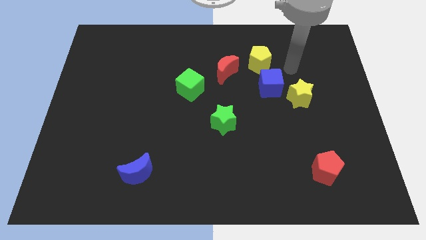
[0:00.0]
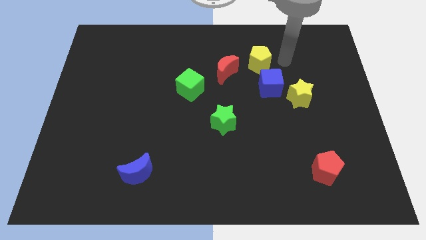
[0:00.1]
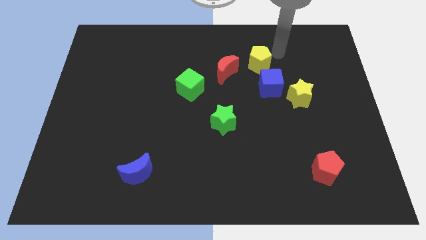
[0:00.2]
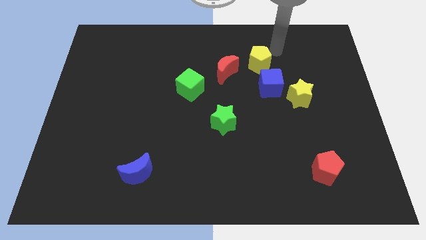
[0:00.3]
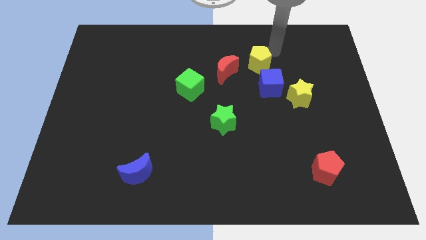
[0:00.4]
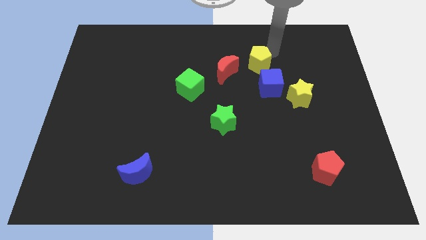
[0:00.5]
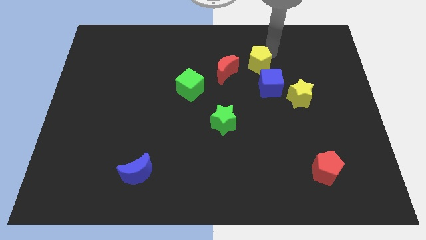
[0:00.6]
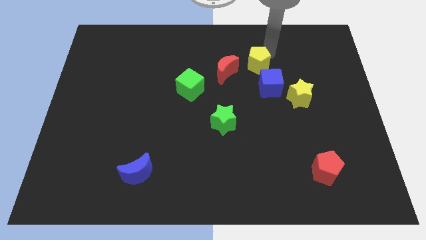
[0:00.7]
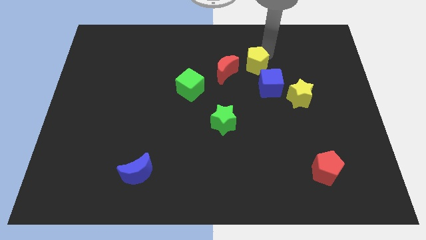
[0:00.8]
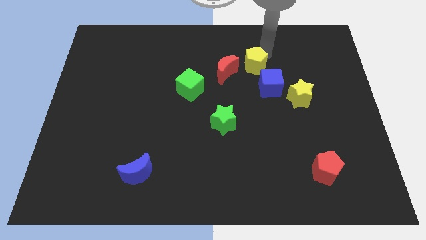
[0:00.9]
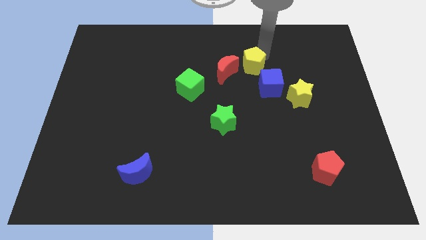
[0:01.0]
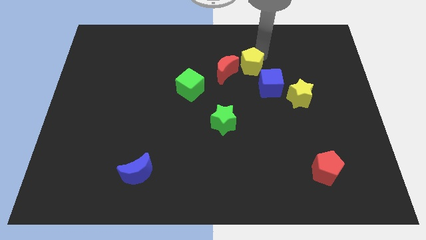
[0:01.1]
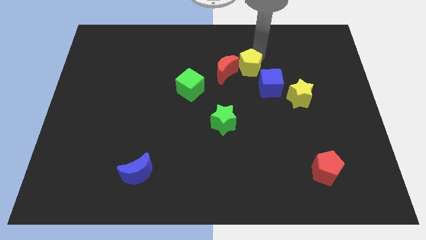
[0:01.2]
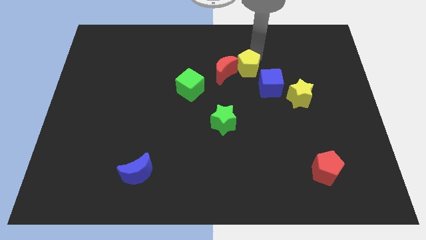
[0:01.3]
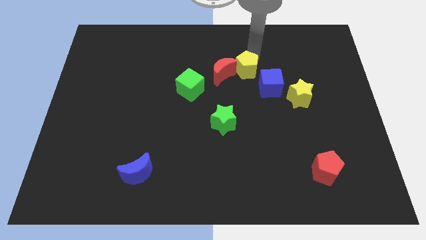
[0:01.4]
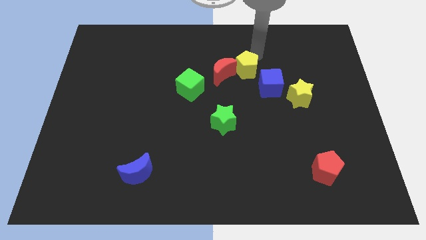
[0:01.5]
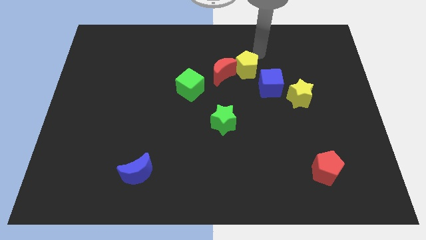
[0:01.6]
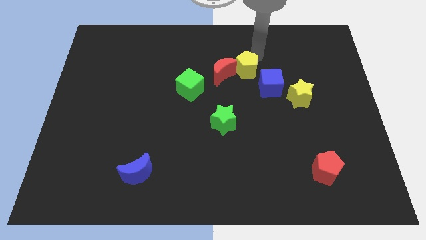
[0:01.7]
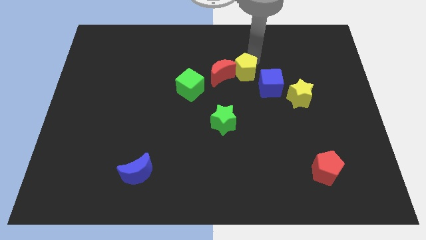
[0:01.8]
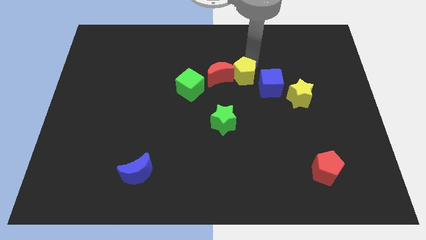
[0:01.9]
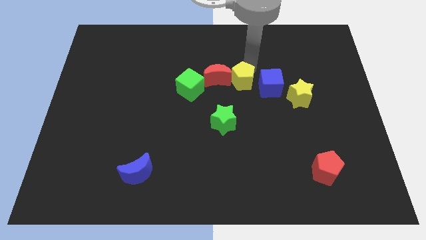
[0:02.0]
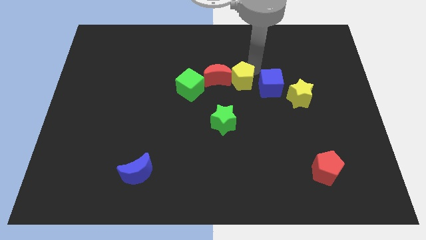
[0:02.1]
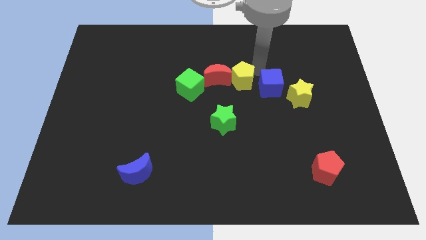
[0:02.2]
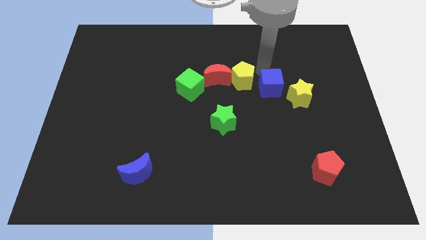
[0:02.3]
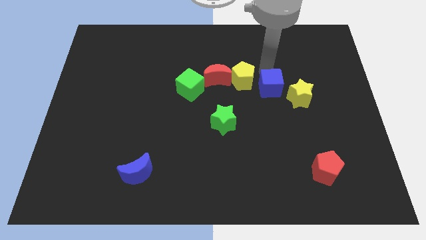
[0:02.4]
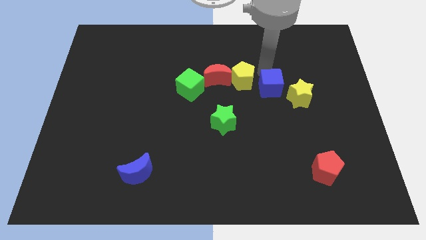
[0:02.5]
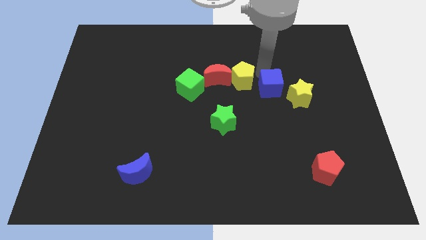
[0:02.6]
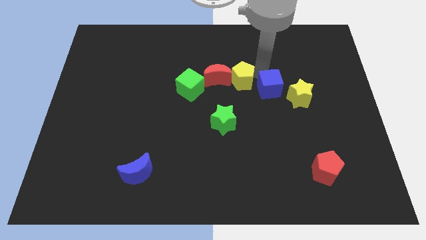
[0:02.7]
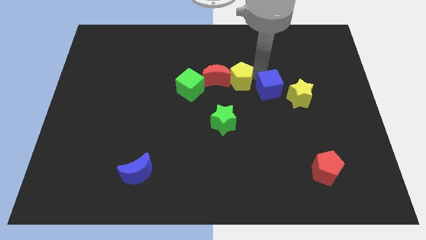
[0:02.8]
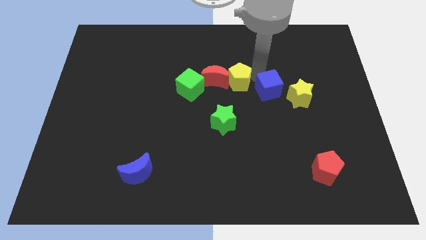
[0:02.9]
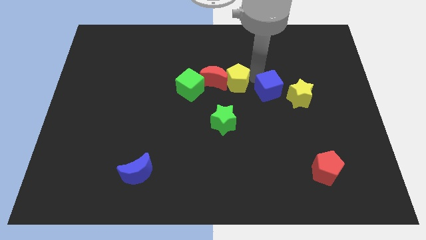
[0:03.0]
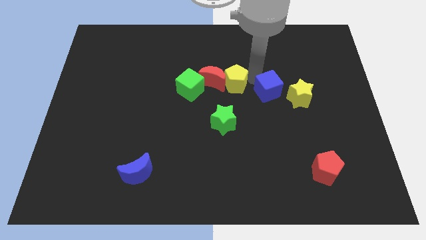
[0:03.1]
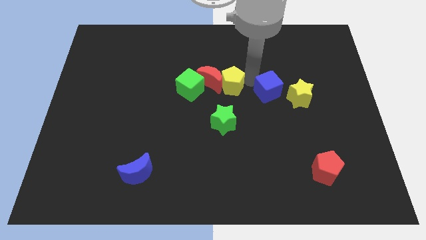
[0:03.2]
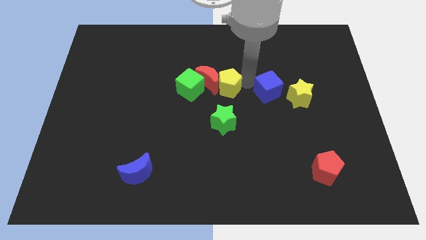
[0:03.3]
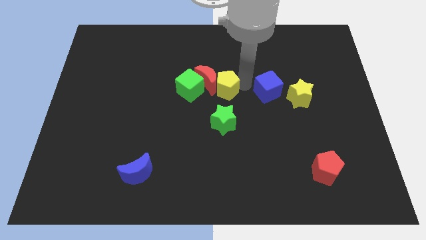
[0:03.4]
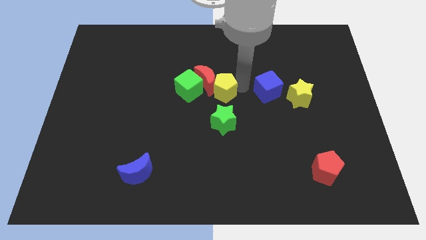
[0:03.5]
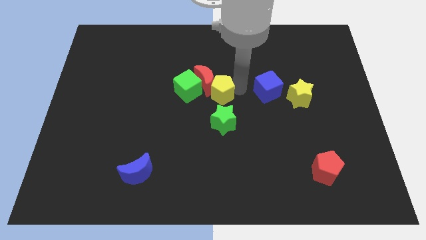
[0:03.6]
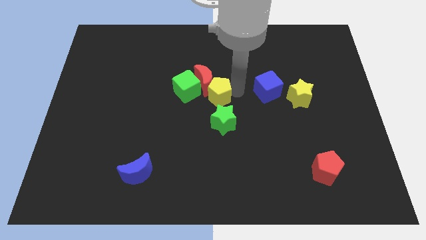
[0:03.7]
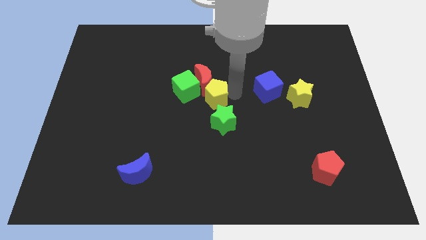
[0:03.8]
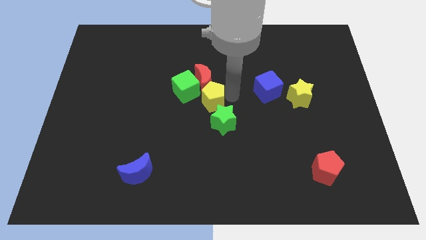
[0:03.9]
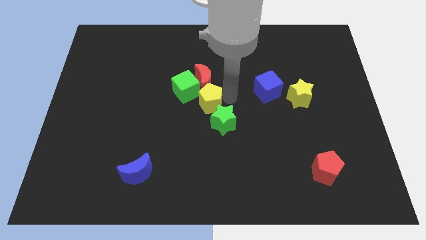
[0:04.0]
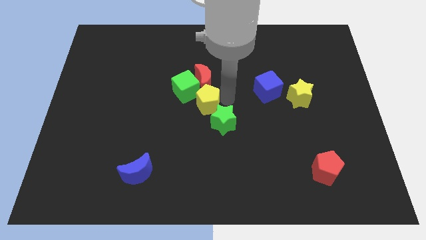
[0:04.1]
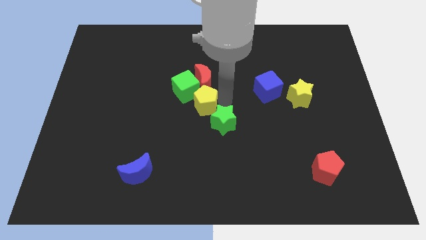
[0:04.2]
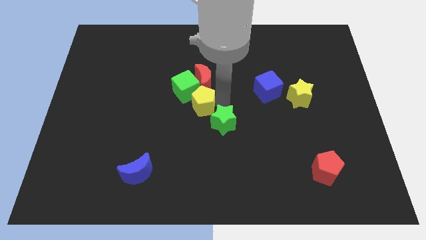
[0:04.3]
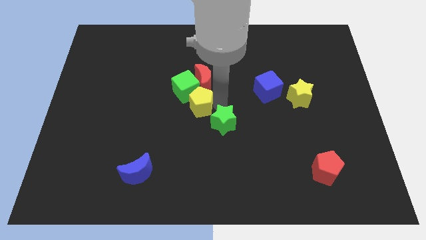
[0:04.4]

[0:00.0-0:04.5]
put the yellow pentagon to the green cube

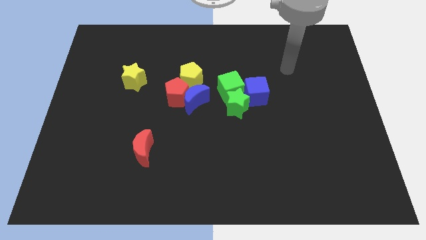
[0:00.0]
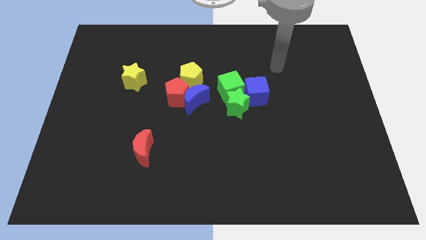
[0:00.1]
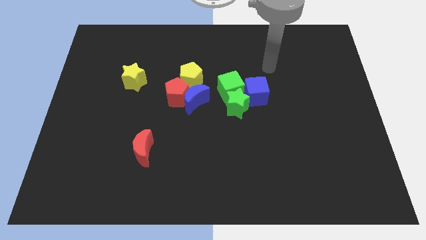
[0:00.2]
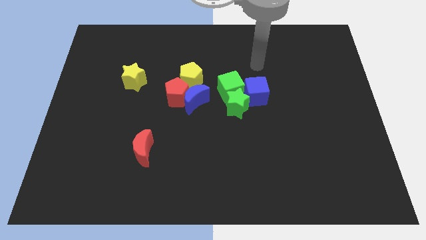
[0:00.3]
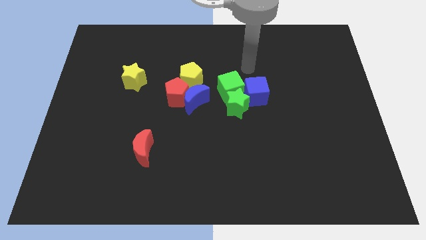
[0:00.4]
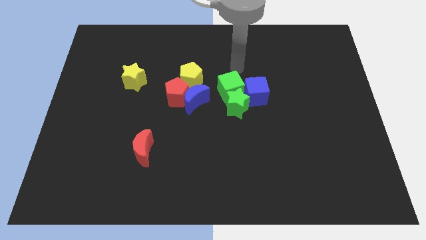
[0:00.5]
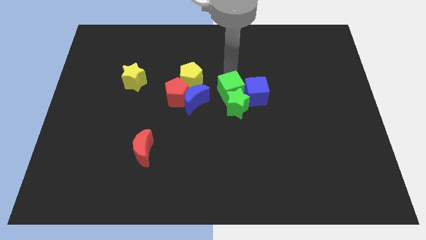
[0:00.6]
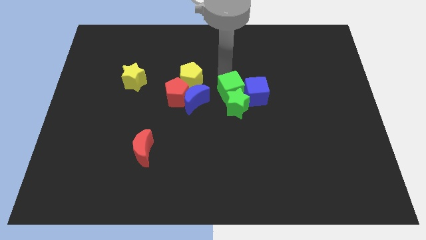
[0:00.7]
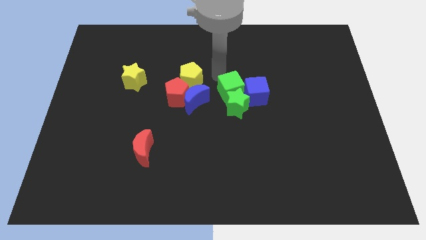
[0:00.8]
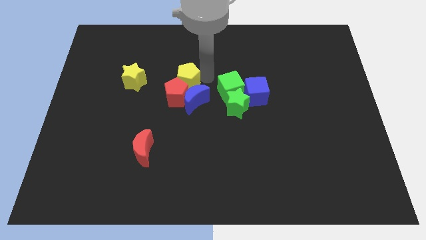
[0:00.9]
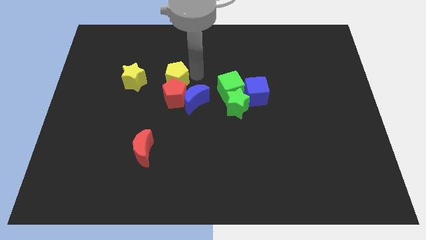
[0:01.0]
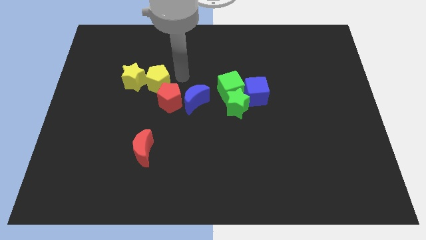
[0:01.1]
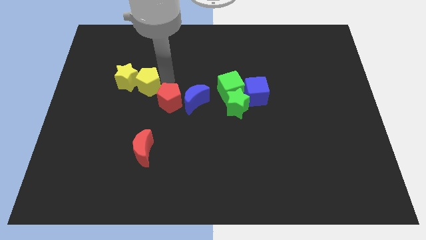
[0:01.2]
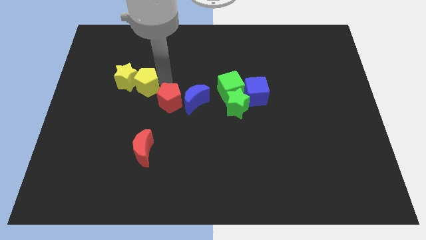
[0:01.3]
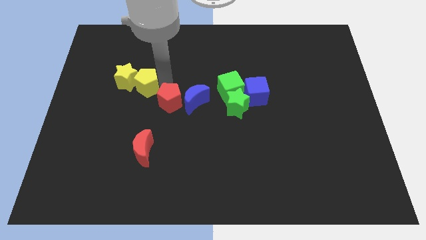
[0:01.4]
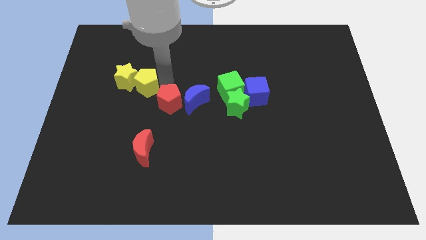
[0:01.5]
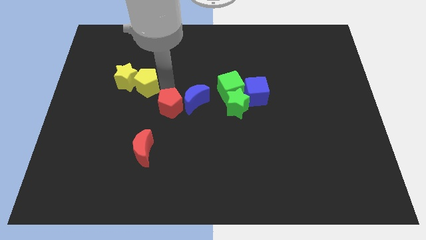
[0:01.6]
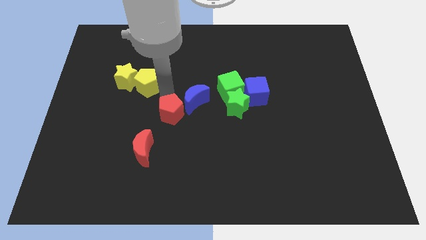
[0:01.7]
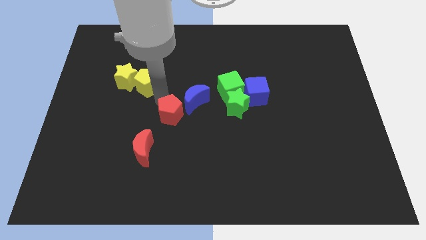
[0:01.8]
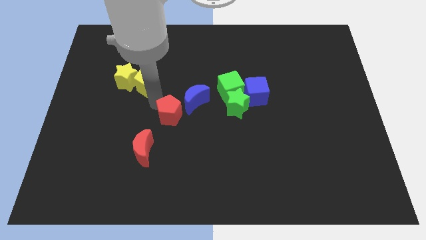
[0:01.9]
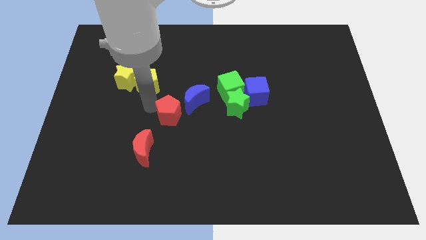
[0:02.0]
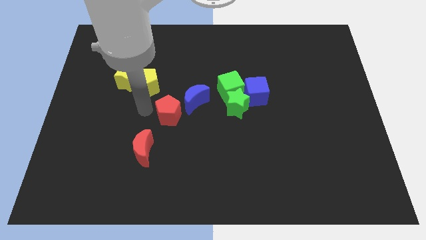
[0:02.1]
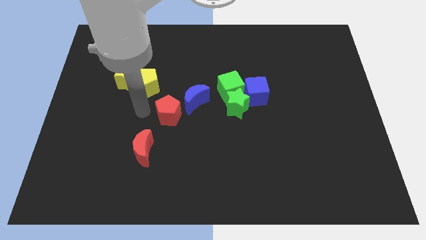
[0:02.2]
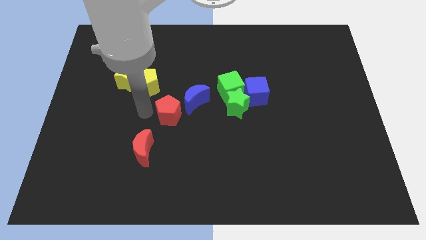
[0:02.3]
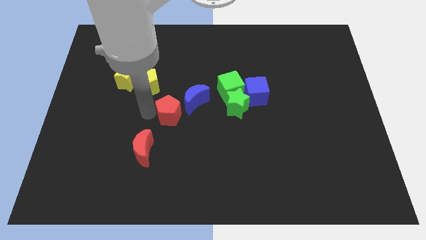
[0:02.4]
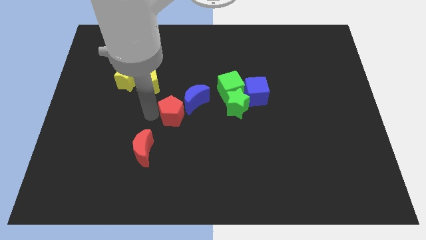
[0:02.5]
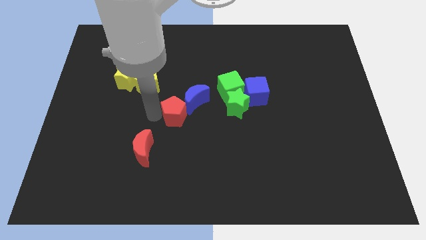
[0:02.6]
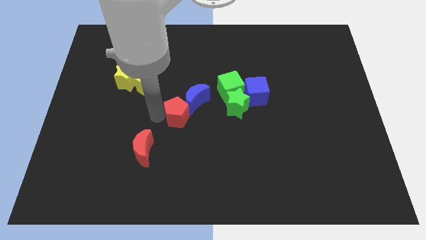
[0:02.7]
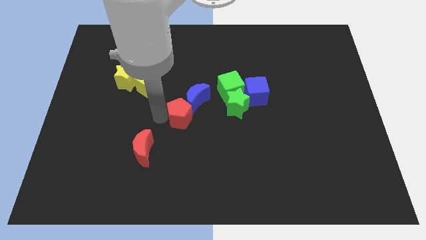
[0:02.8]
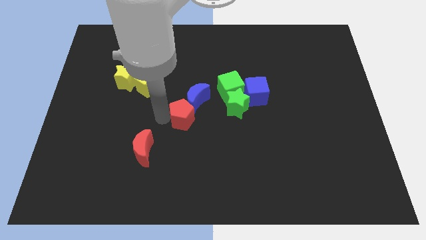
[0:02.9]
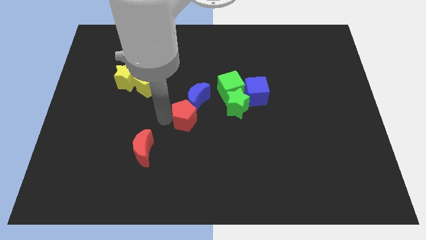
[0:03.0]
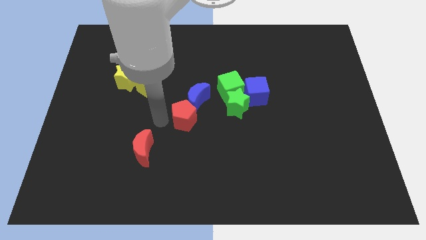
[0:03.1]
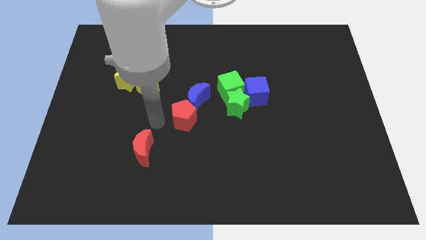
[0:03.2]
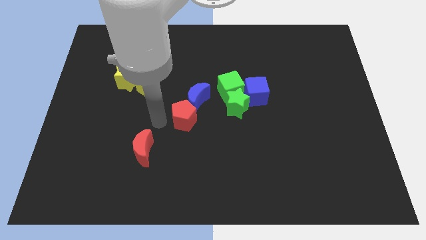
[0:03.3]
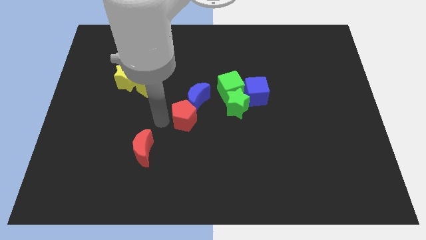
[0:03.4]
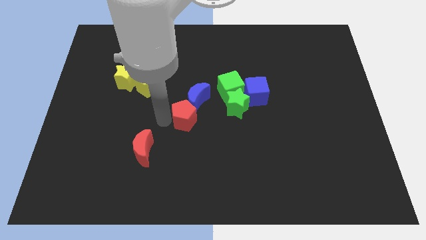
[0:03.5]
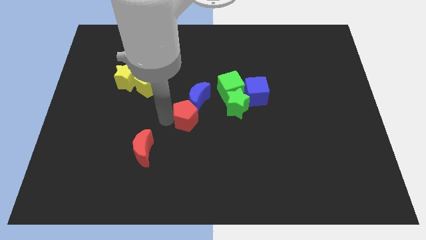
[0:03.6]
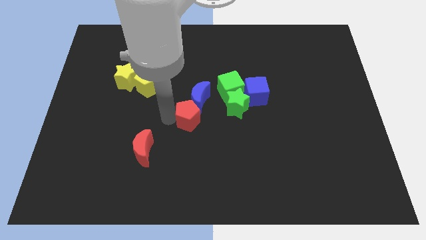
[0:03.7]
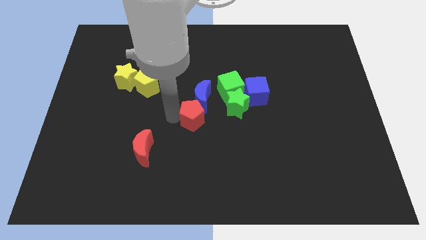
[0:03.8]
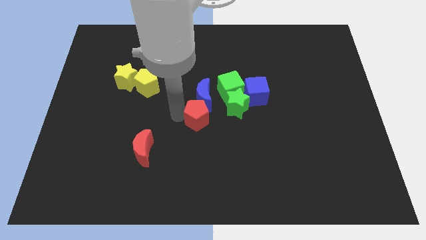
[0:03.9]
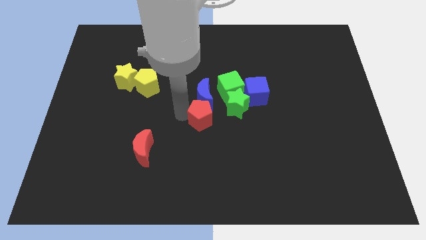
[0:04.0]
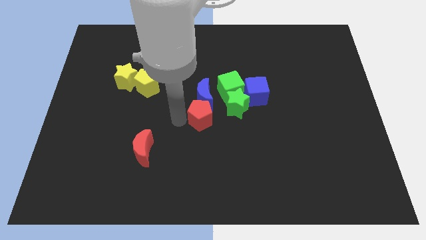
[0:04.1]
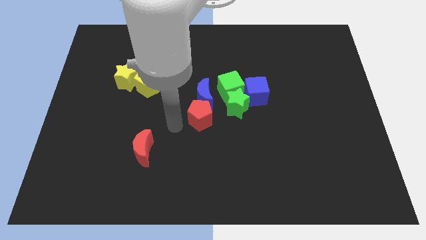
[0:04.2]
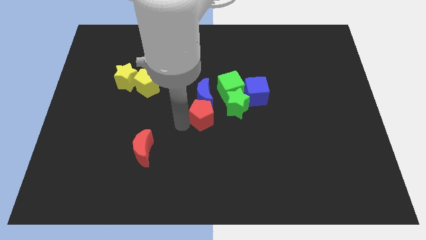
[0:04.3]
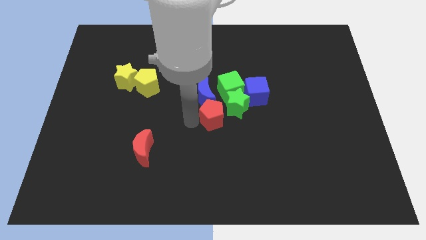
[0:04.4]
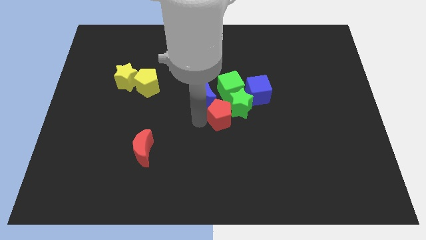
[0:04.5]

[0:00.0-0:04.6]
put the red pentagon towards the green star
